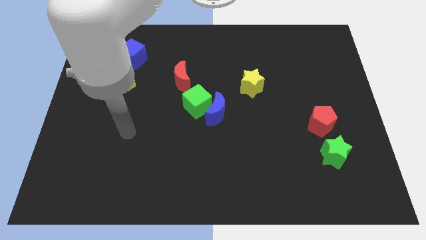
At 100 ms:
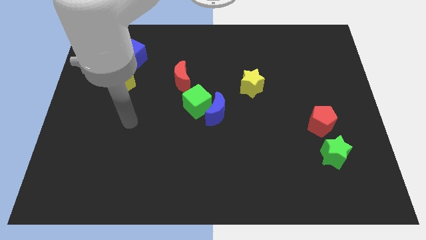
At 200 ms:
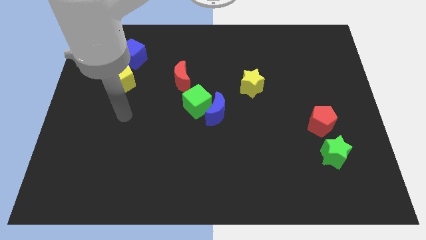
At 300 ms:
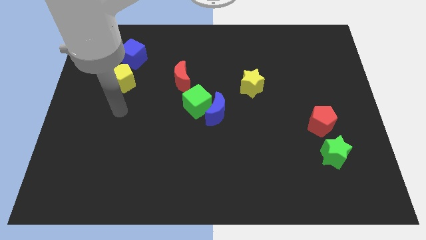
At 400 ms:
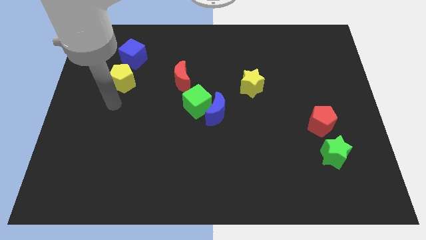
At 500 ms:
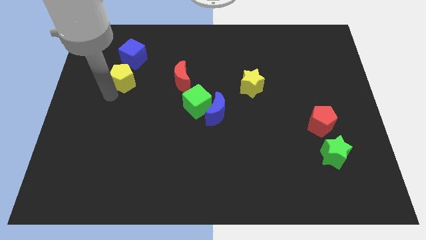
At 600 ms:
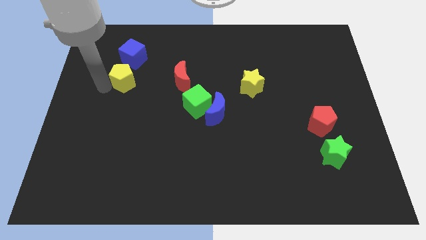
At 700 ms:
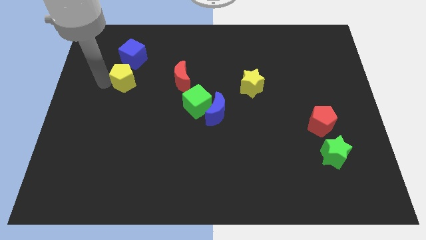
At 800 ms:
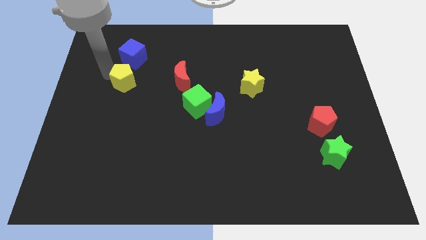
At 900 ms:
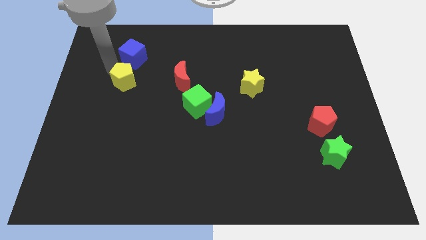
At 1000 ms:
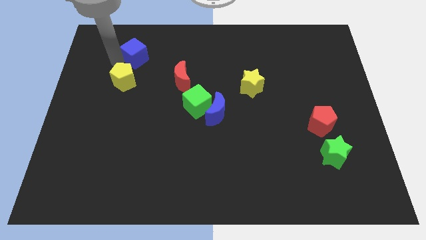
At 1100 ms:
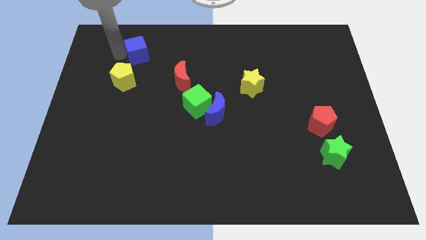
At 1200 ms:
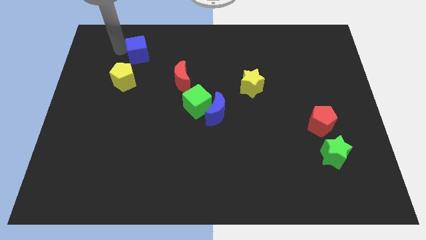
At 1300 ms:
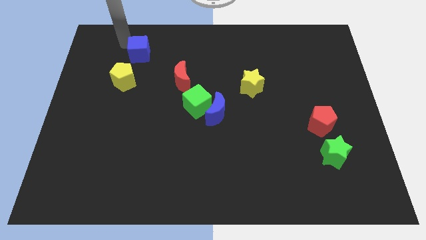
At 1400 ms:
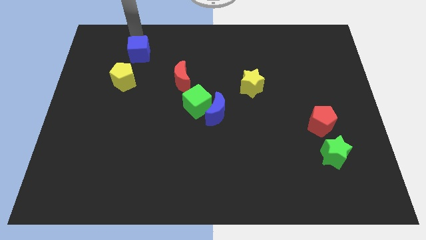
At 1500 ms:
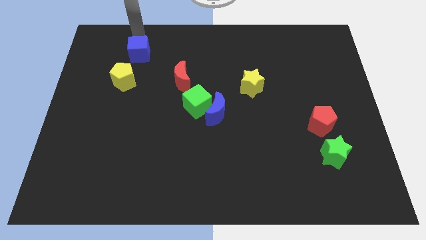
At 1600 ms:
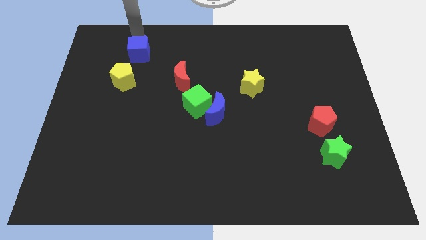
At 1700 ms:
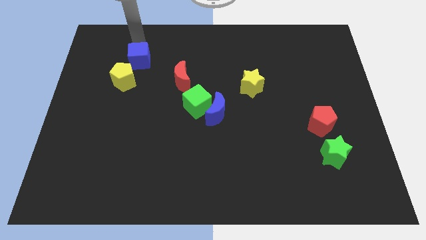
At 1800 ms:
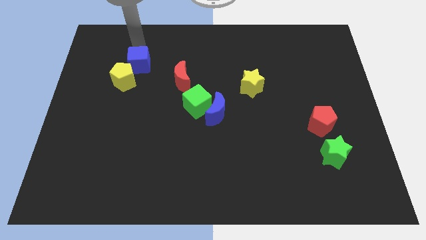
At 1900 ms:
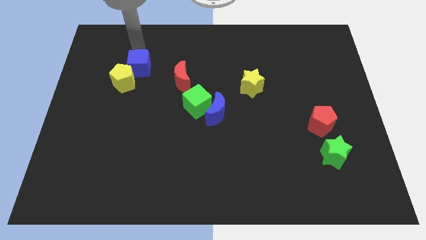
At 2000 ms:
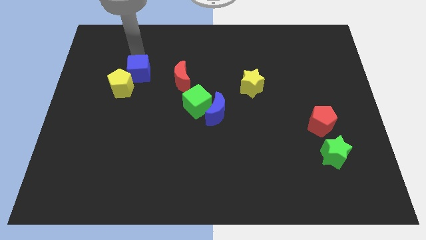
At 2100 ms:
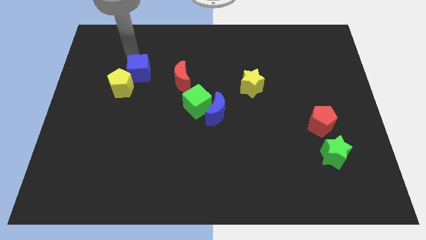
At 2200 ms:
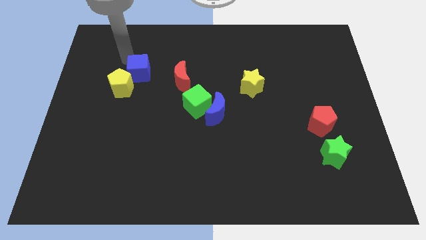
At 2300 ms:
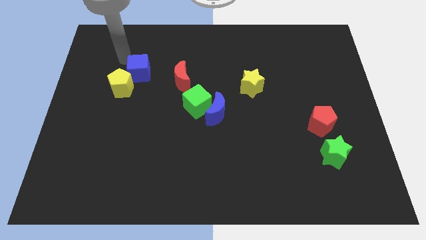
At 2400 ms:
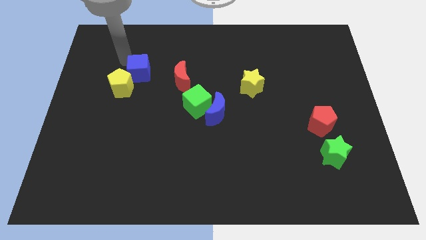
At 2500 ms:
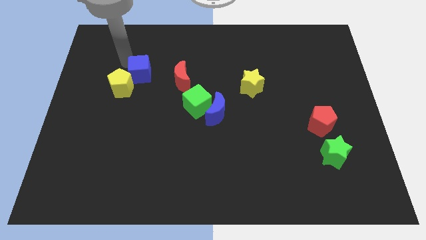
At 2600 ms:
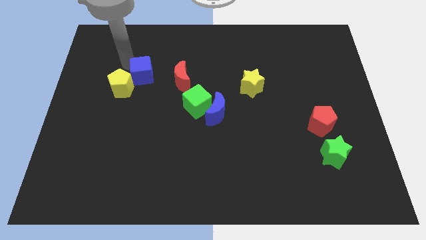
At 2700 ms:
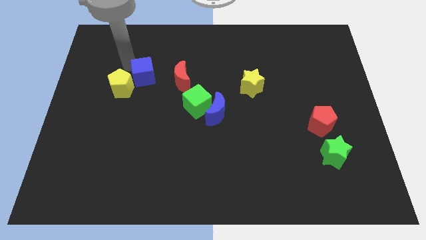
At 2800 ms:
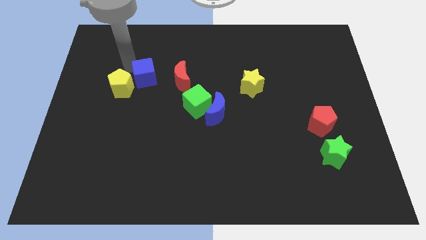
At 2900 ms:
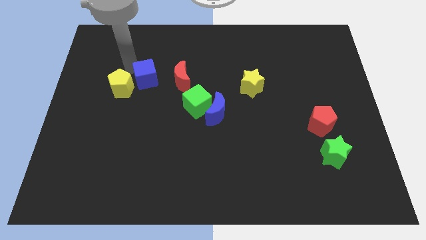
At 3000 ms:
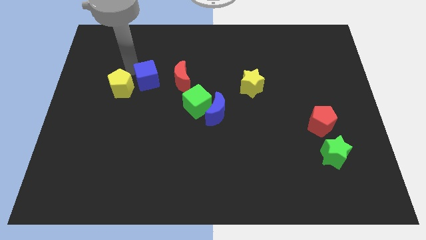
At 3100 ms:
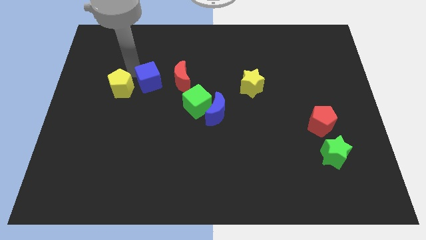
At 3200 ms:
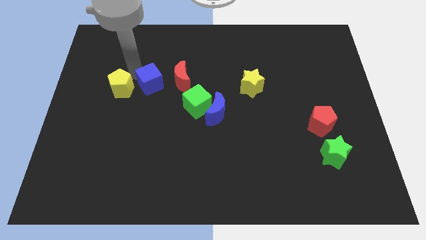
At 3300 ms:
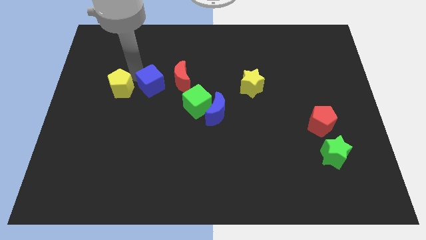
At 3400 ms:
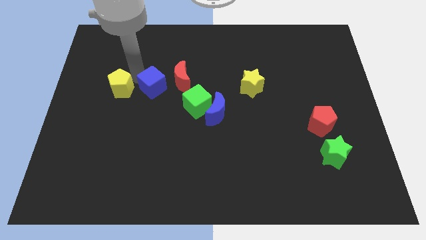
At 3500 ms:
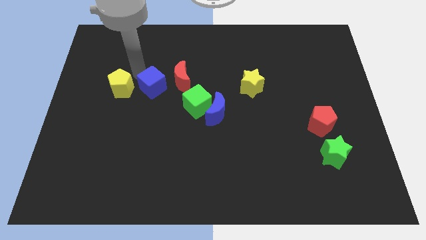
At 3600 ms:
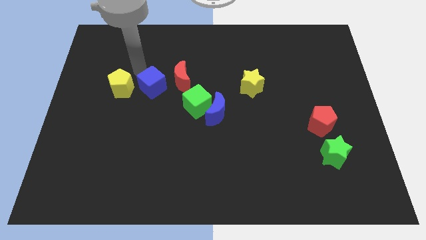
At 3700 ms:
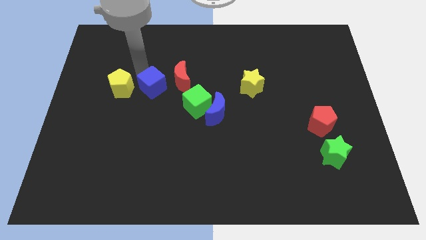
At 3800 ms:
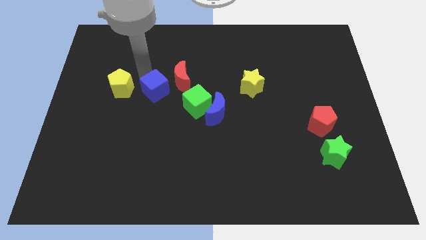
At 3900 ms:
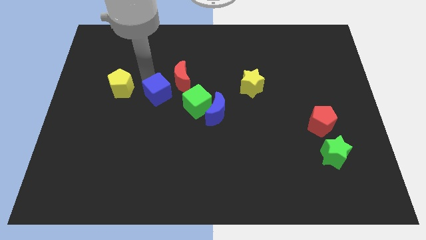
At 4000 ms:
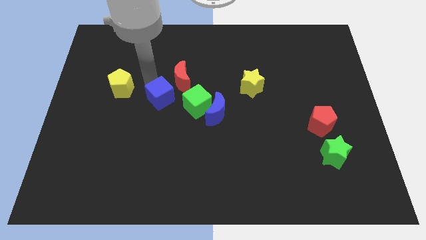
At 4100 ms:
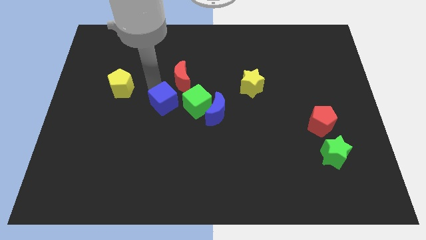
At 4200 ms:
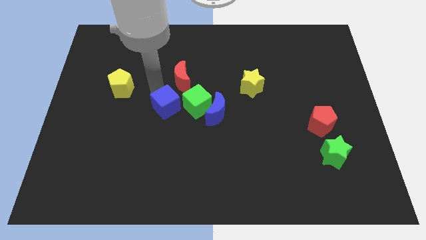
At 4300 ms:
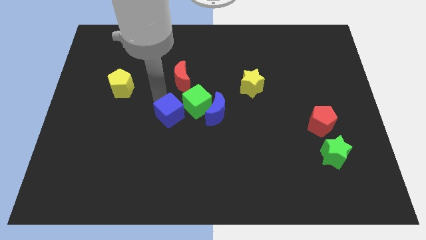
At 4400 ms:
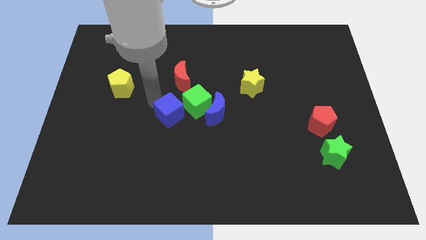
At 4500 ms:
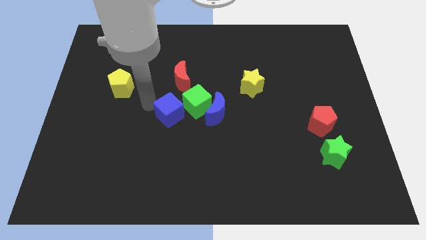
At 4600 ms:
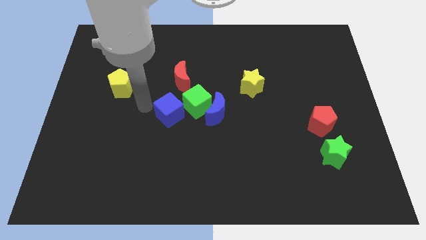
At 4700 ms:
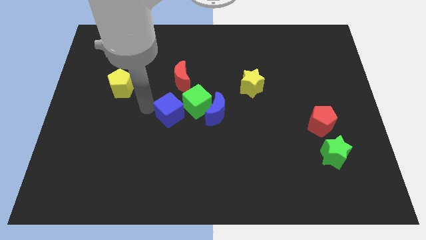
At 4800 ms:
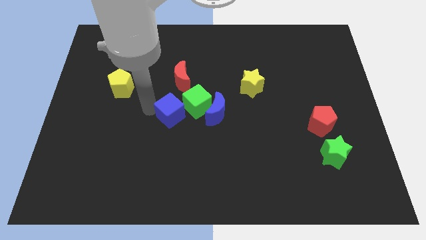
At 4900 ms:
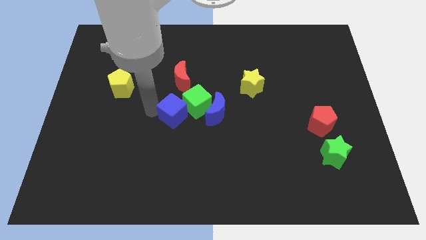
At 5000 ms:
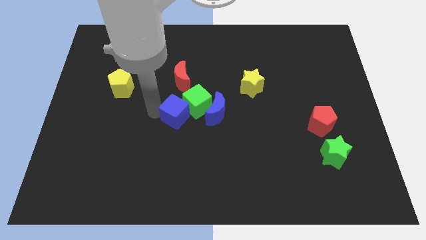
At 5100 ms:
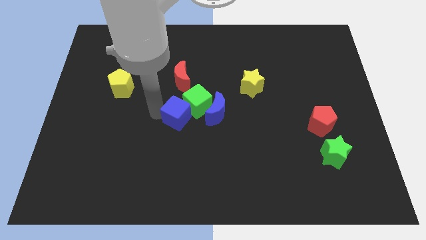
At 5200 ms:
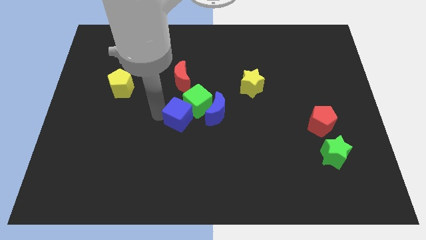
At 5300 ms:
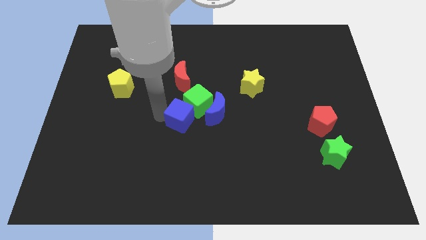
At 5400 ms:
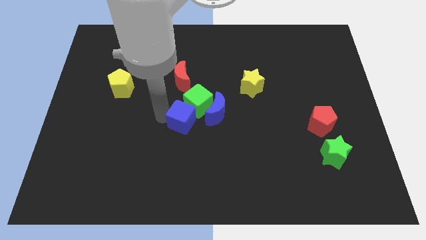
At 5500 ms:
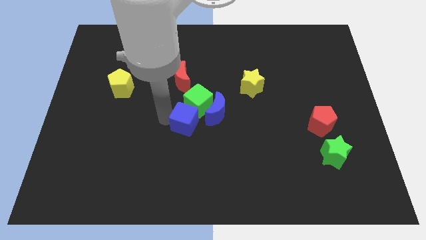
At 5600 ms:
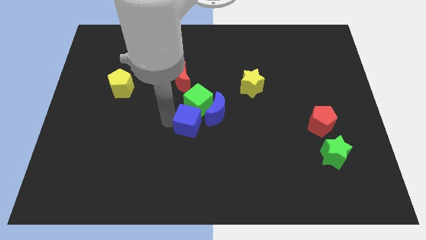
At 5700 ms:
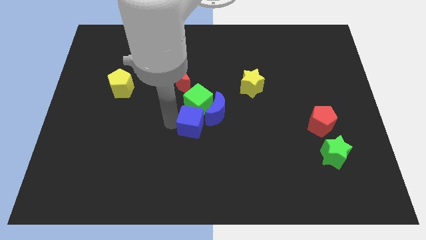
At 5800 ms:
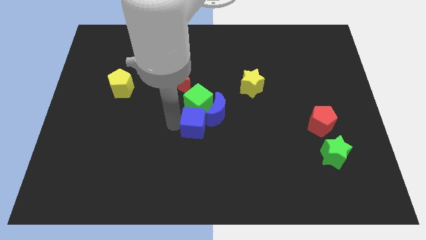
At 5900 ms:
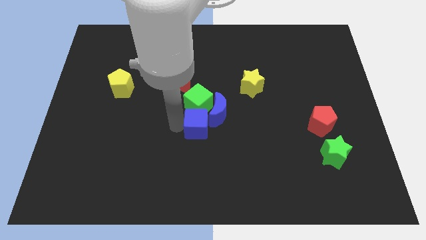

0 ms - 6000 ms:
move the blue cube to the blue moon

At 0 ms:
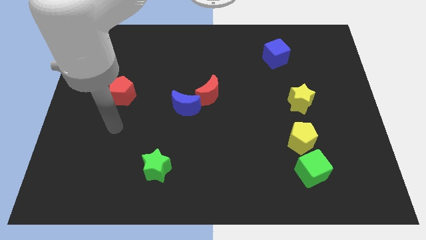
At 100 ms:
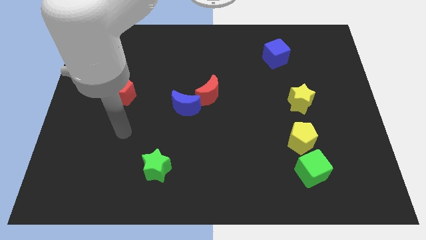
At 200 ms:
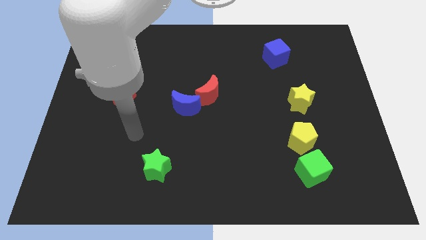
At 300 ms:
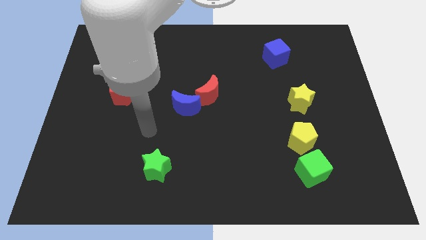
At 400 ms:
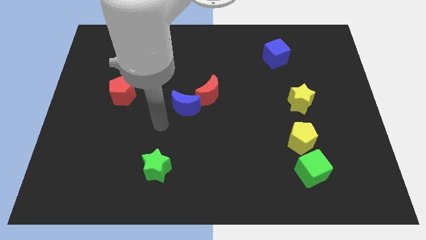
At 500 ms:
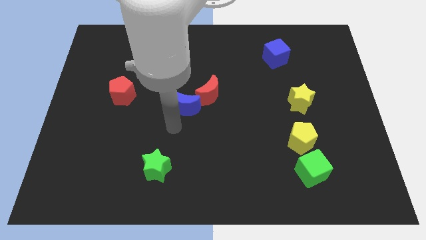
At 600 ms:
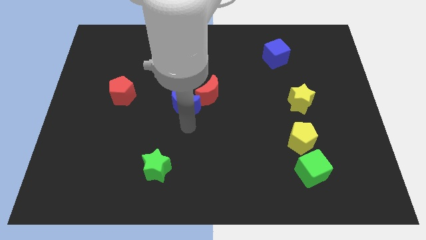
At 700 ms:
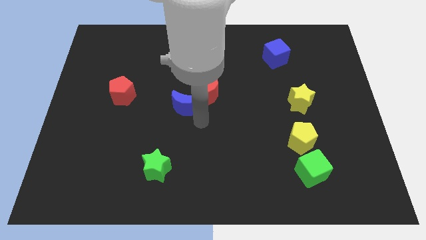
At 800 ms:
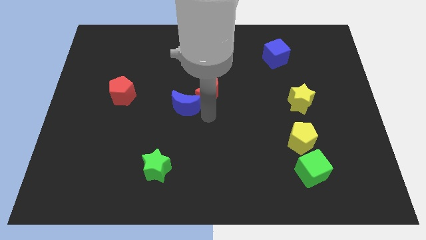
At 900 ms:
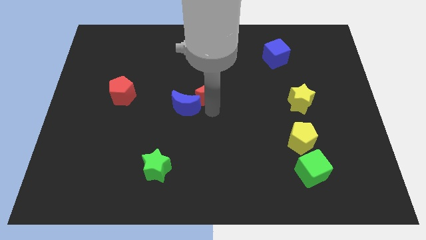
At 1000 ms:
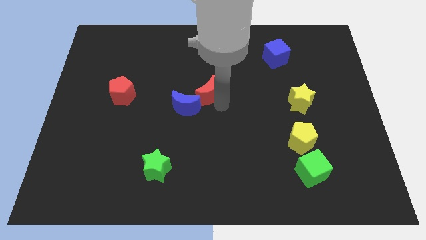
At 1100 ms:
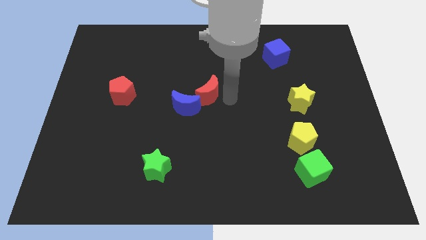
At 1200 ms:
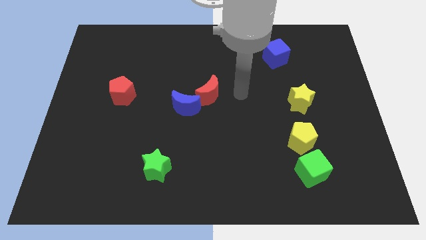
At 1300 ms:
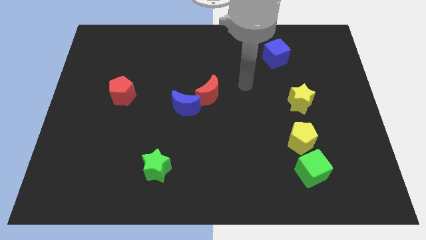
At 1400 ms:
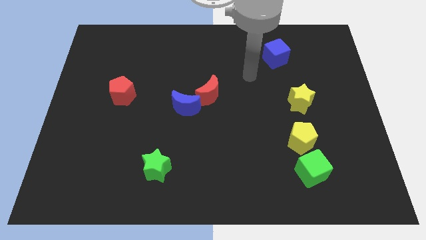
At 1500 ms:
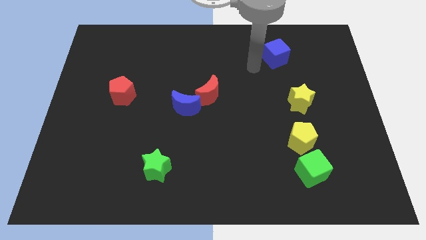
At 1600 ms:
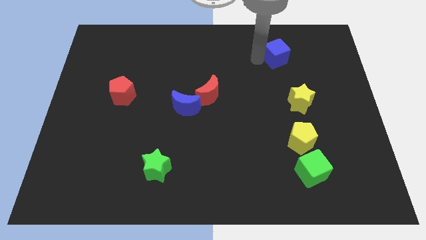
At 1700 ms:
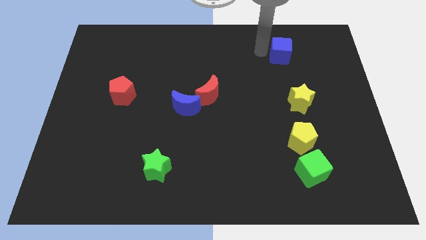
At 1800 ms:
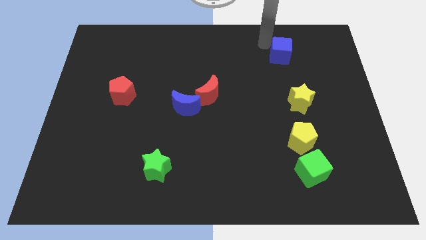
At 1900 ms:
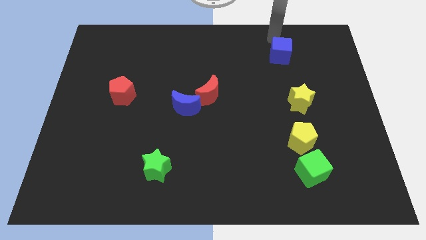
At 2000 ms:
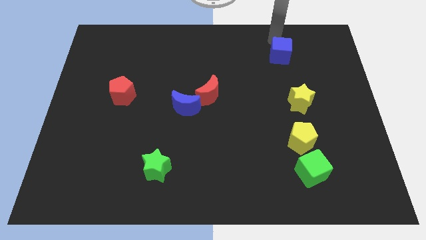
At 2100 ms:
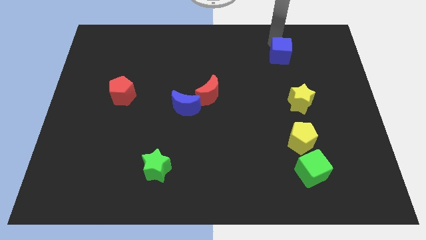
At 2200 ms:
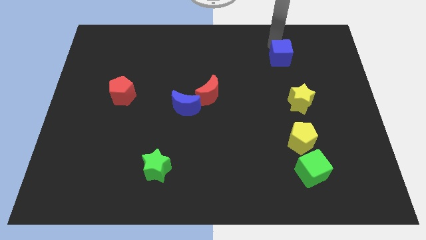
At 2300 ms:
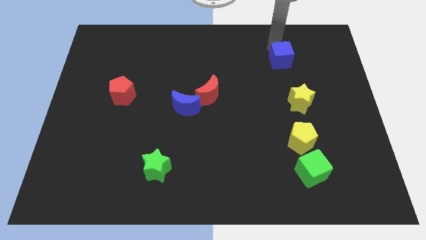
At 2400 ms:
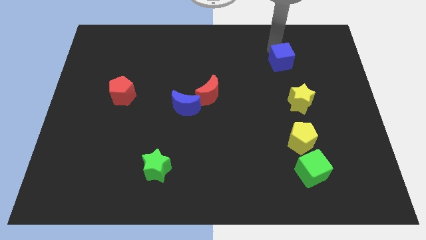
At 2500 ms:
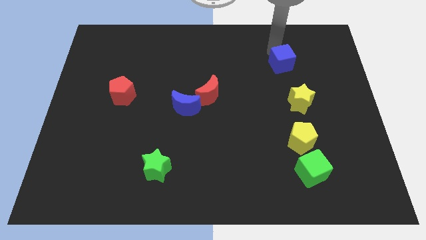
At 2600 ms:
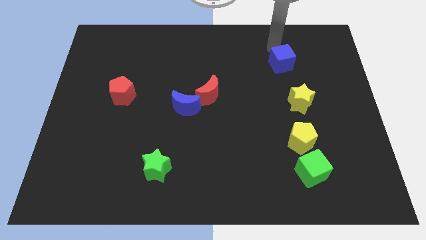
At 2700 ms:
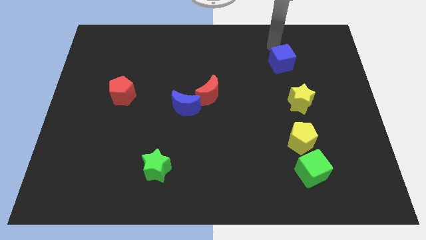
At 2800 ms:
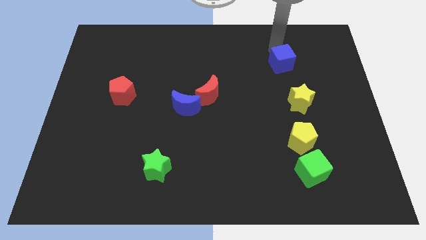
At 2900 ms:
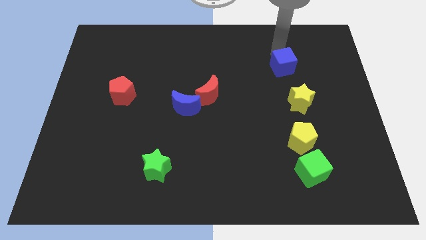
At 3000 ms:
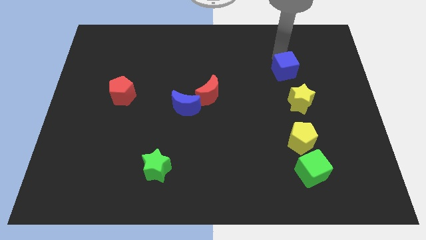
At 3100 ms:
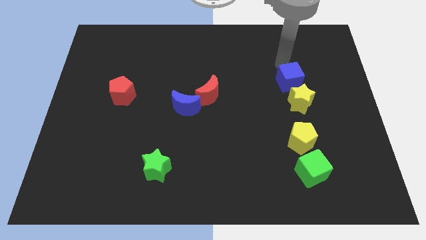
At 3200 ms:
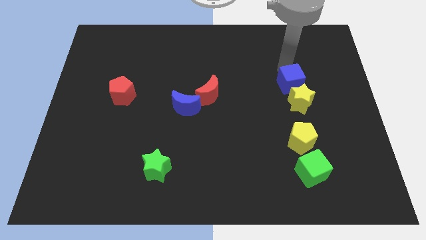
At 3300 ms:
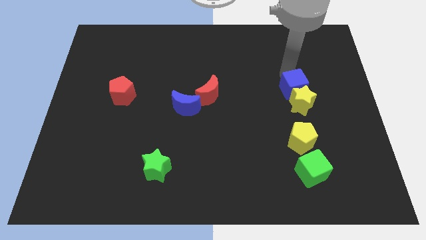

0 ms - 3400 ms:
push the blue cube close to the yellow star
